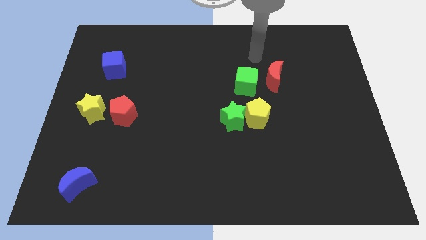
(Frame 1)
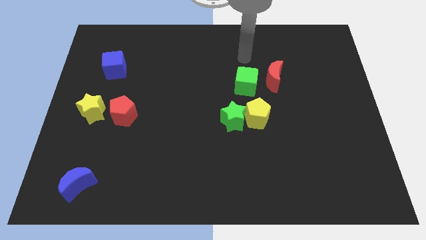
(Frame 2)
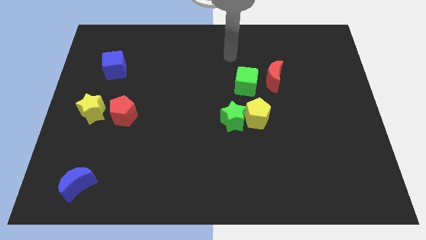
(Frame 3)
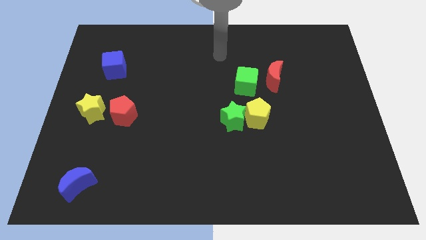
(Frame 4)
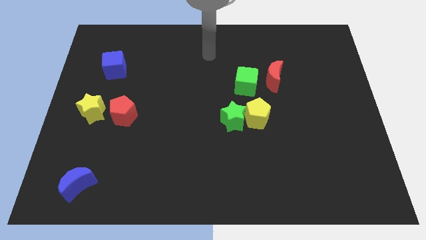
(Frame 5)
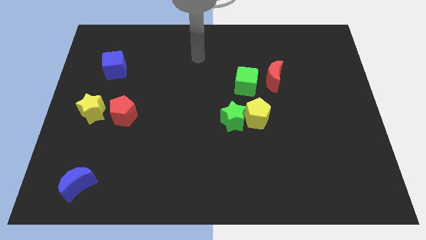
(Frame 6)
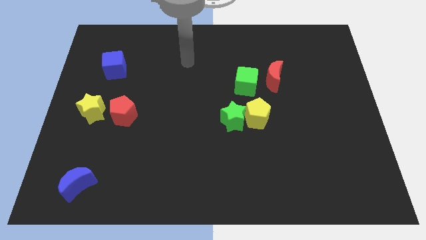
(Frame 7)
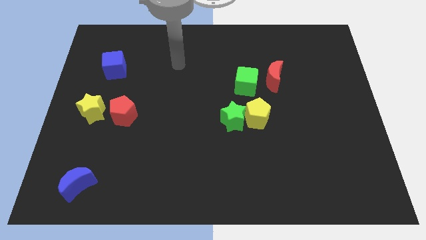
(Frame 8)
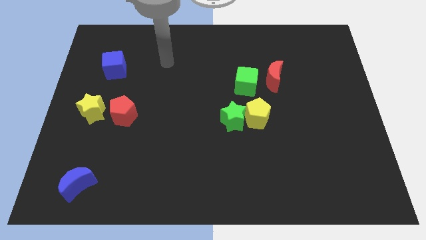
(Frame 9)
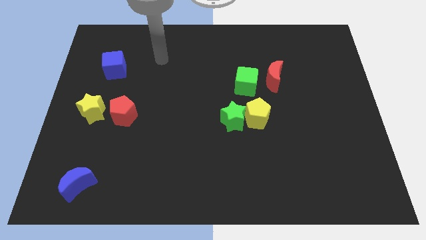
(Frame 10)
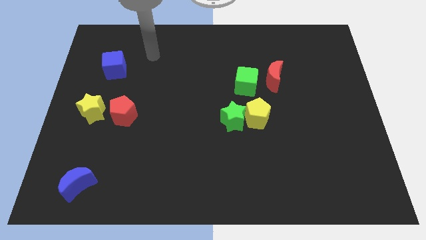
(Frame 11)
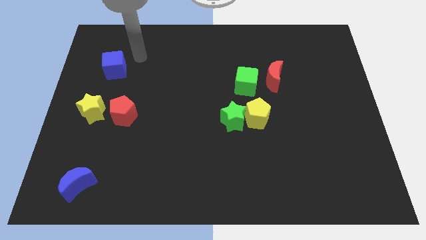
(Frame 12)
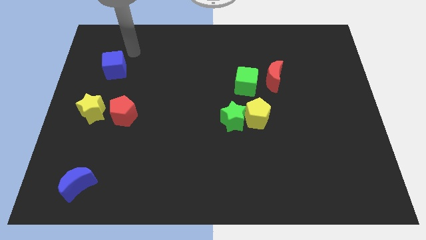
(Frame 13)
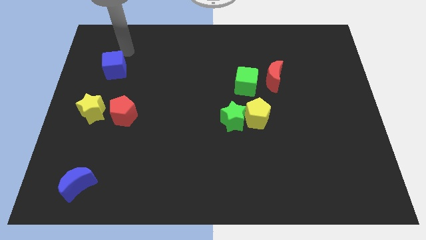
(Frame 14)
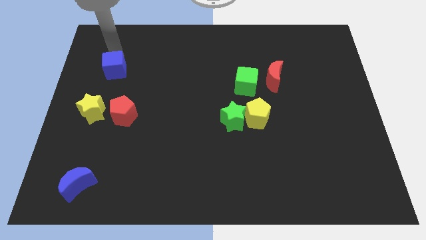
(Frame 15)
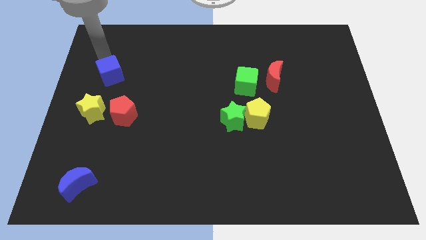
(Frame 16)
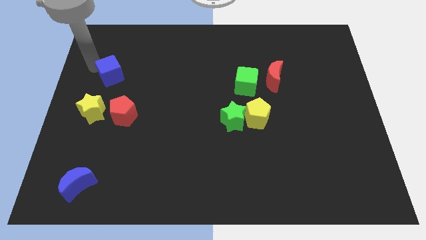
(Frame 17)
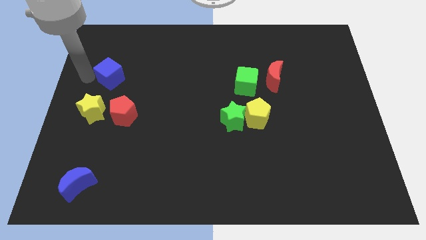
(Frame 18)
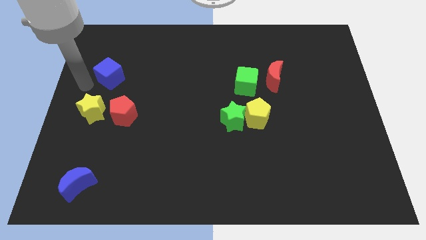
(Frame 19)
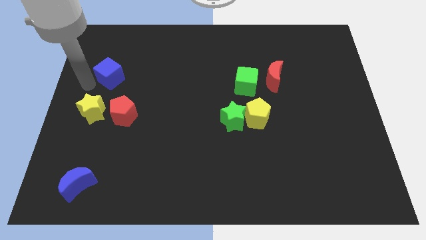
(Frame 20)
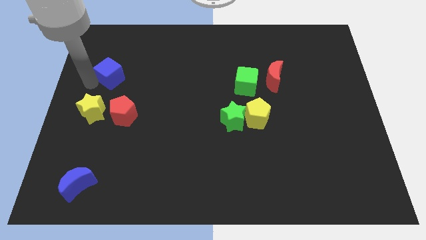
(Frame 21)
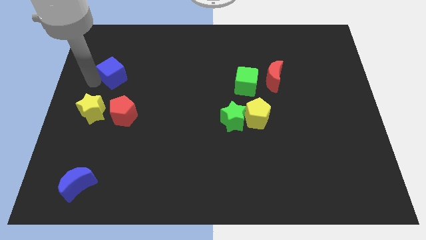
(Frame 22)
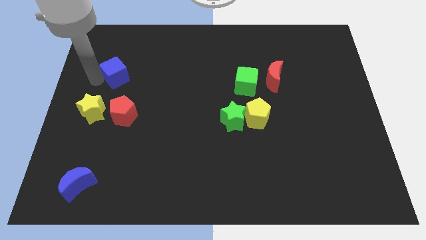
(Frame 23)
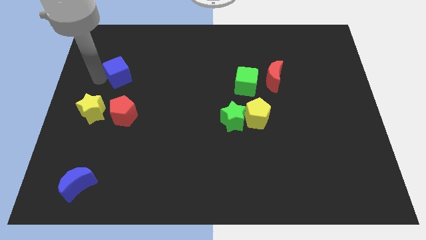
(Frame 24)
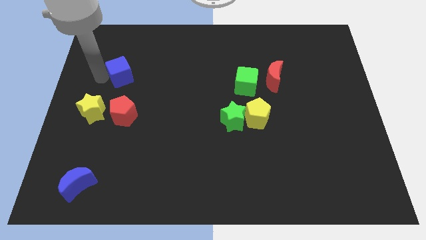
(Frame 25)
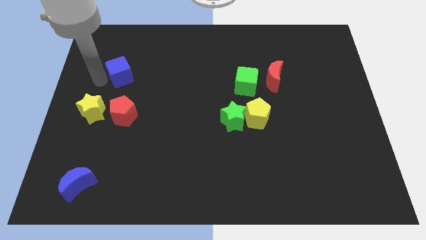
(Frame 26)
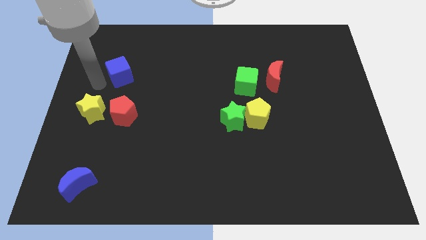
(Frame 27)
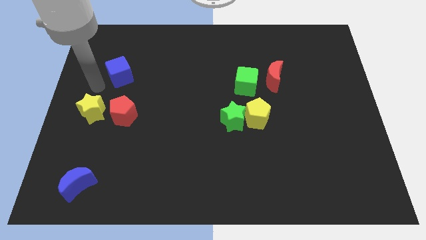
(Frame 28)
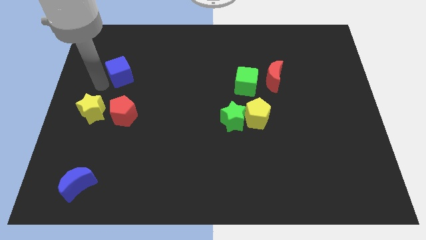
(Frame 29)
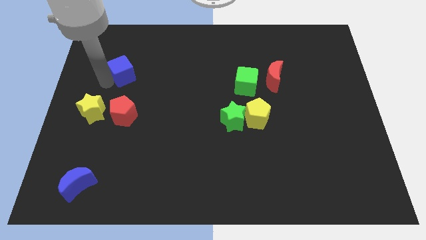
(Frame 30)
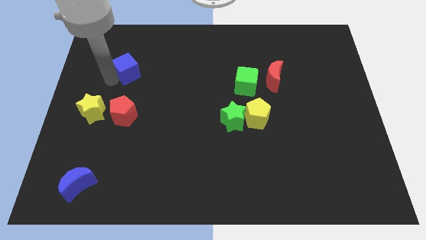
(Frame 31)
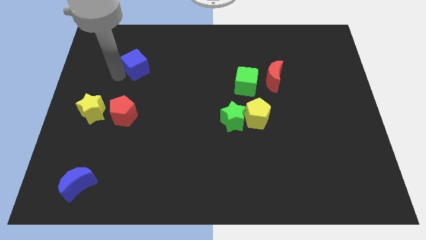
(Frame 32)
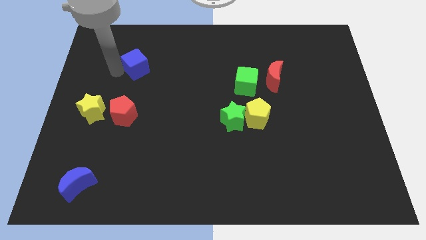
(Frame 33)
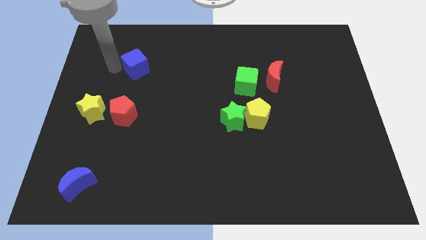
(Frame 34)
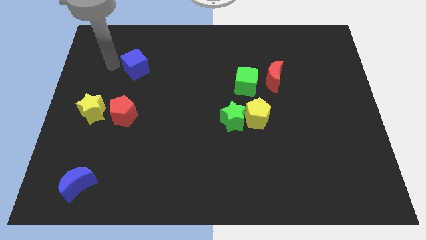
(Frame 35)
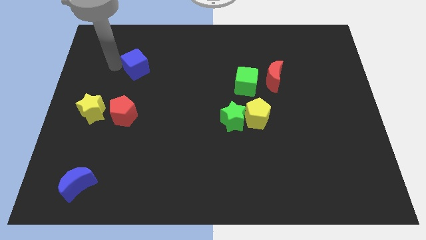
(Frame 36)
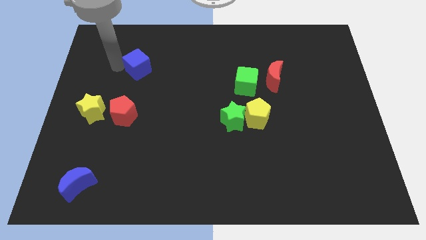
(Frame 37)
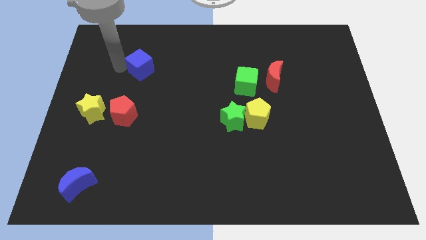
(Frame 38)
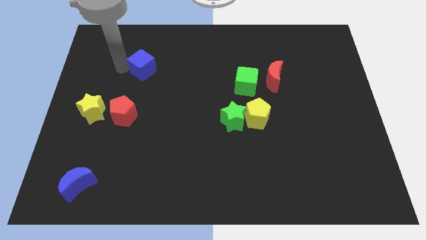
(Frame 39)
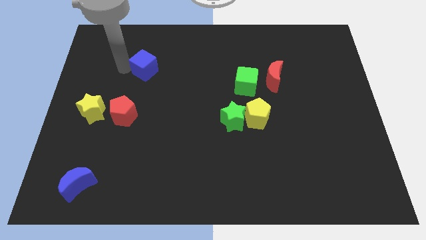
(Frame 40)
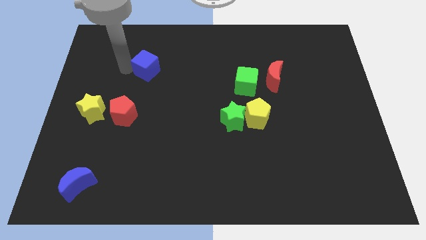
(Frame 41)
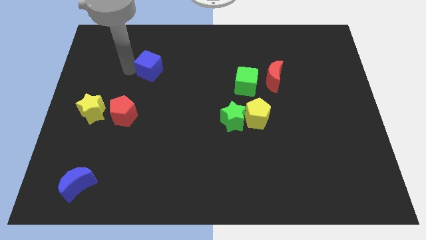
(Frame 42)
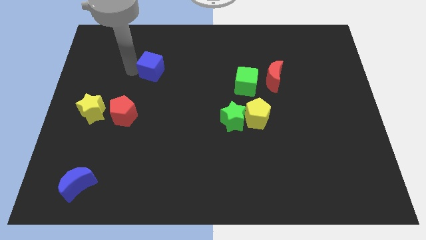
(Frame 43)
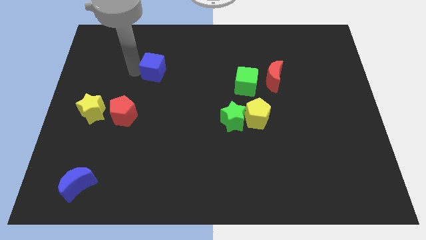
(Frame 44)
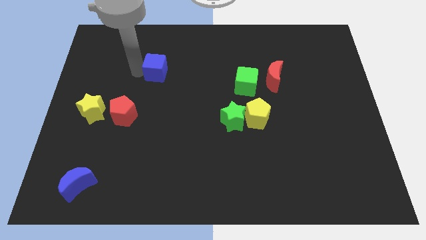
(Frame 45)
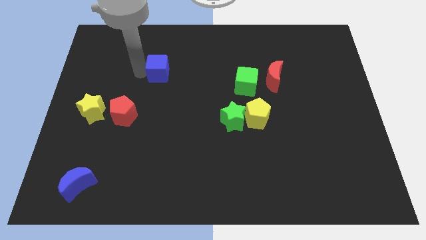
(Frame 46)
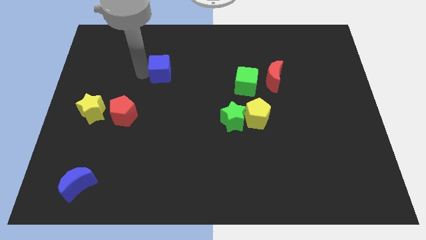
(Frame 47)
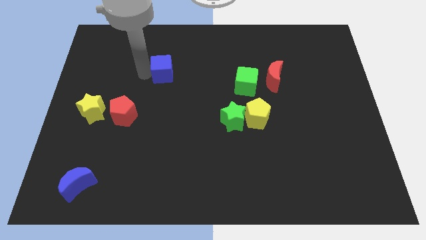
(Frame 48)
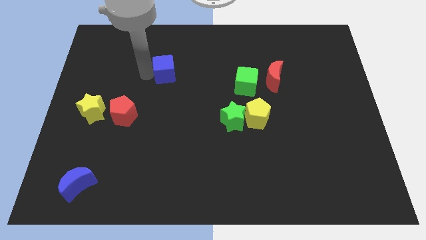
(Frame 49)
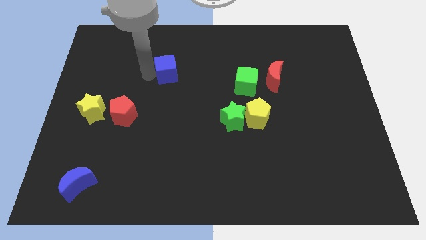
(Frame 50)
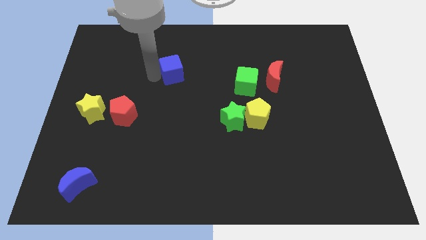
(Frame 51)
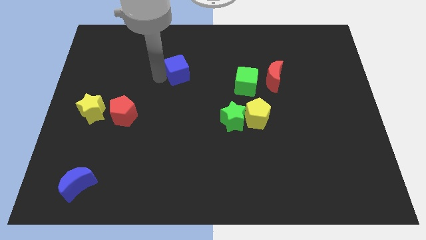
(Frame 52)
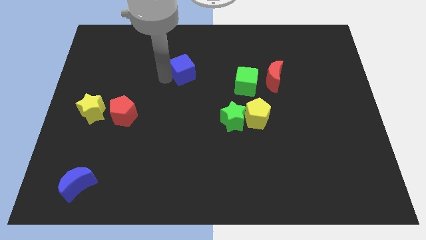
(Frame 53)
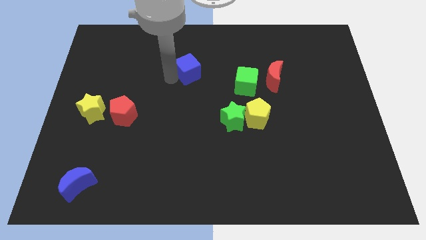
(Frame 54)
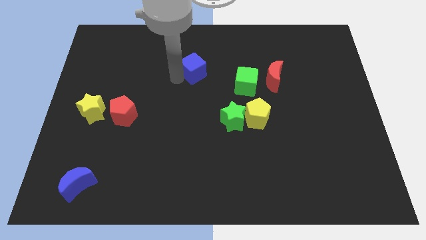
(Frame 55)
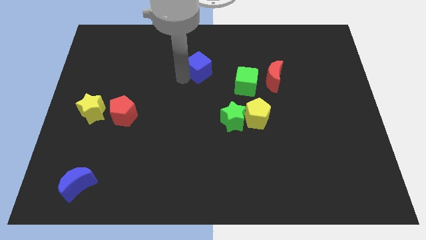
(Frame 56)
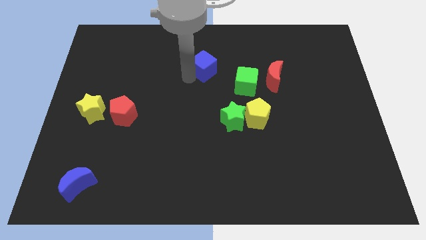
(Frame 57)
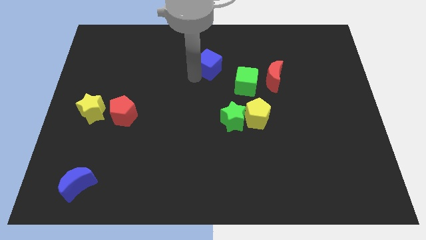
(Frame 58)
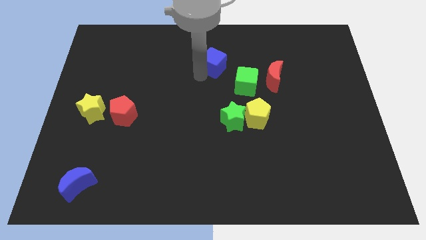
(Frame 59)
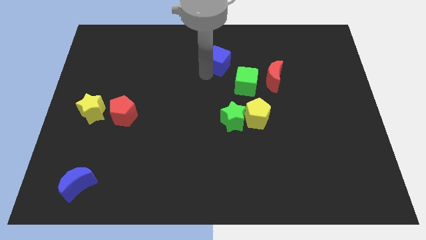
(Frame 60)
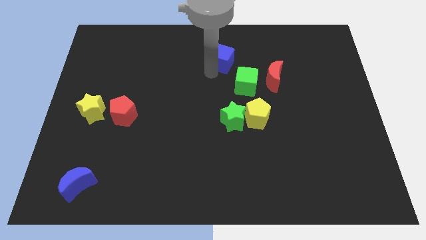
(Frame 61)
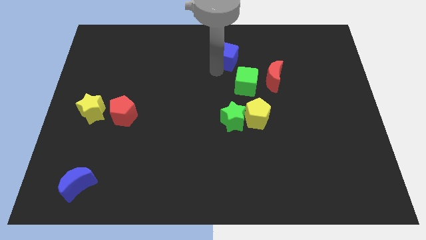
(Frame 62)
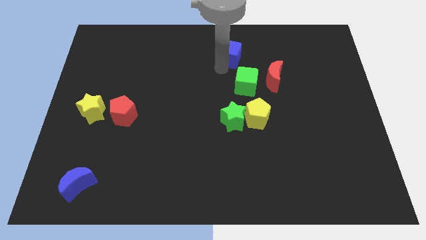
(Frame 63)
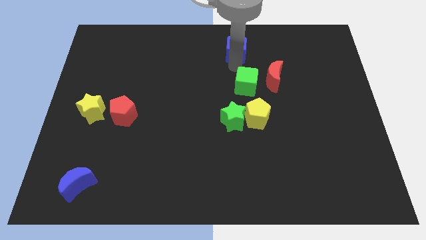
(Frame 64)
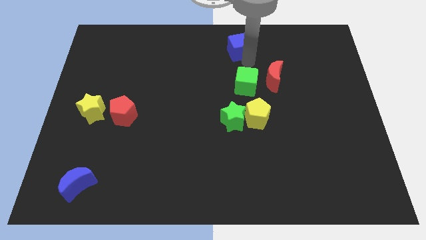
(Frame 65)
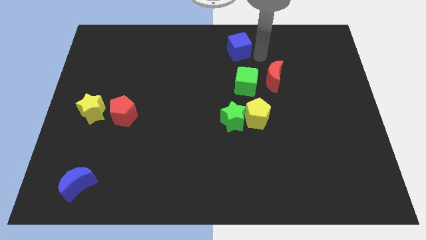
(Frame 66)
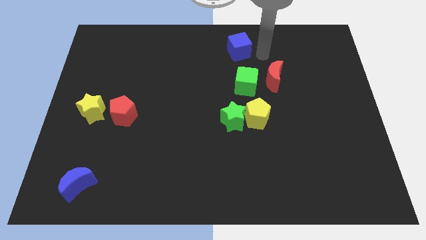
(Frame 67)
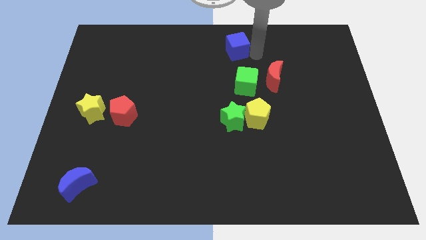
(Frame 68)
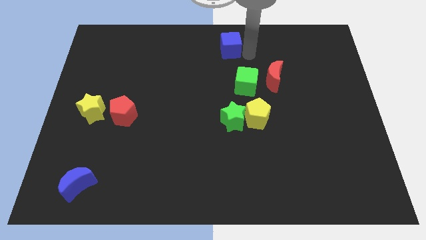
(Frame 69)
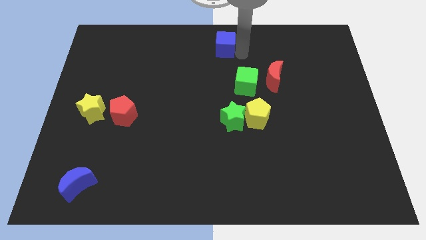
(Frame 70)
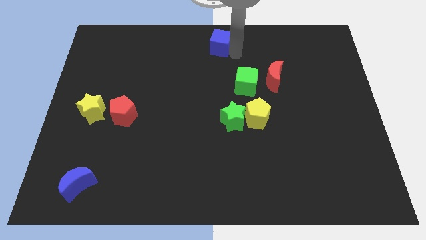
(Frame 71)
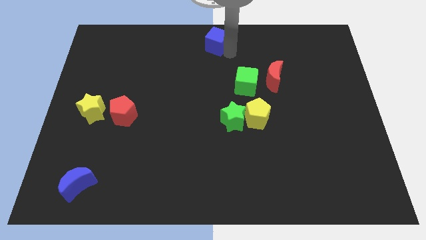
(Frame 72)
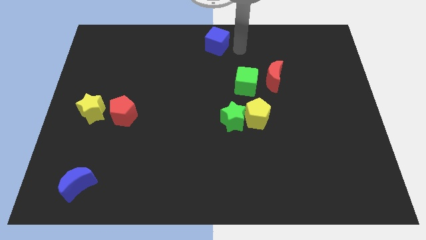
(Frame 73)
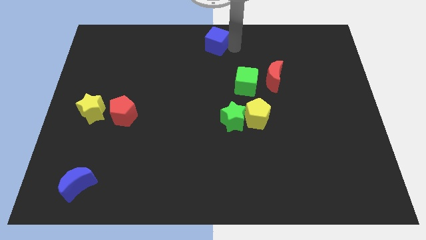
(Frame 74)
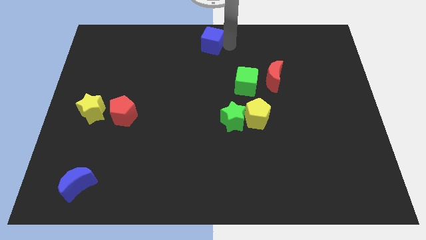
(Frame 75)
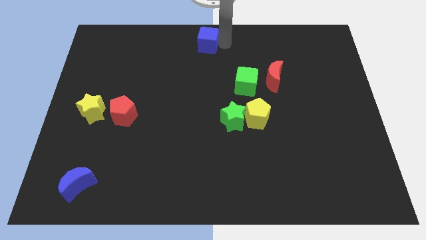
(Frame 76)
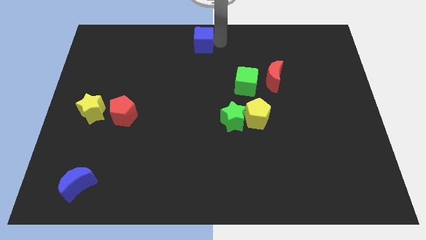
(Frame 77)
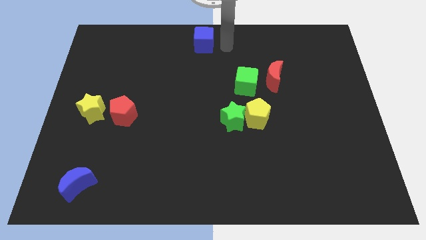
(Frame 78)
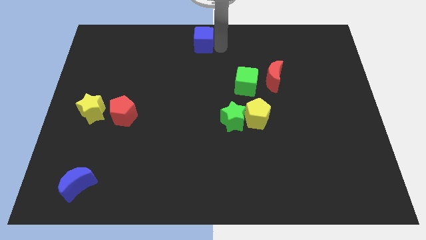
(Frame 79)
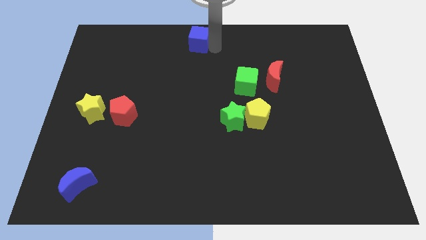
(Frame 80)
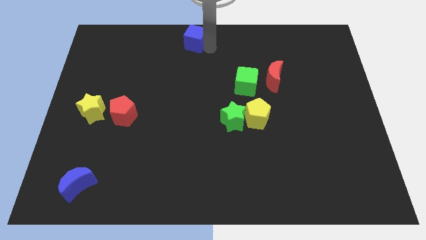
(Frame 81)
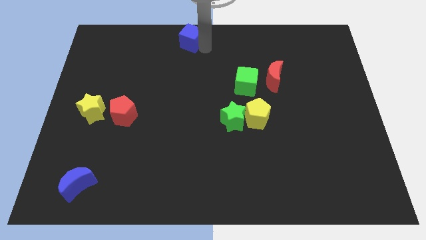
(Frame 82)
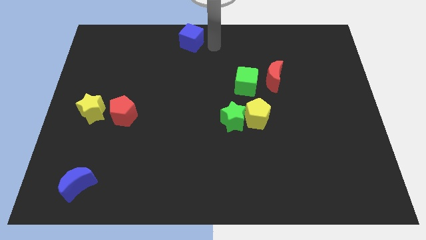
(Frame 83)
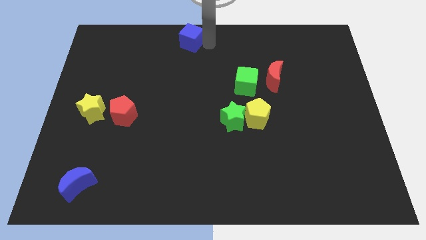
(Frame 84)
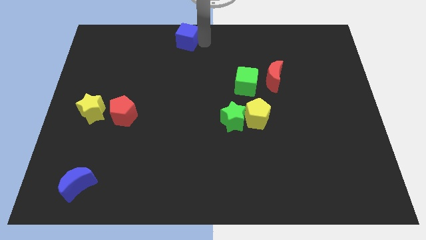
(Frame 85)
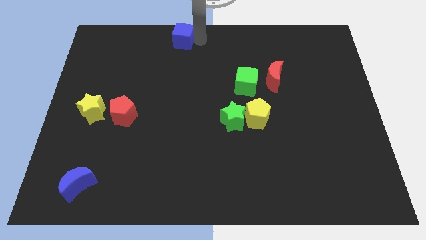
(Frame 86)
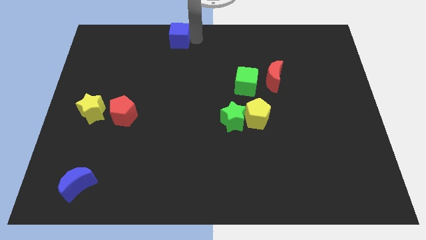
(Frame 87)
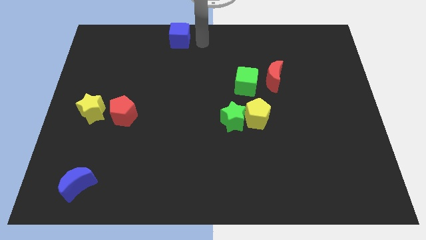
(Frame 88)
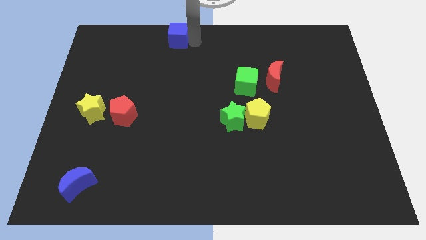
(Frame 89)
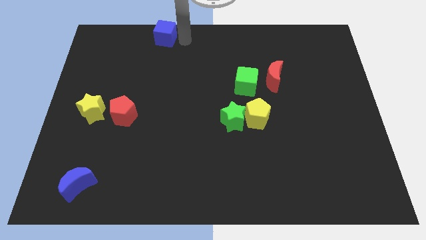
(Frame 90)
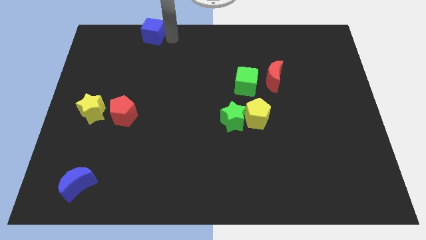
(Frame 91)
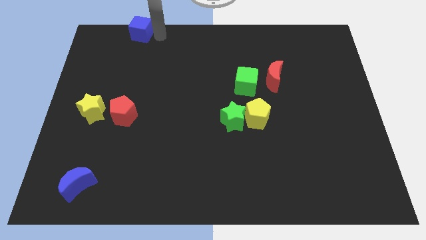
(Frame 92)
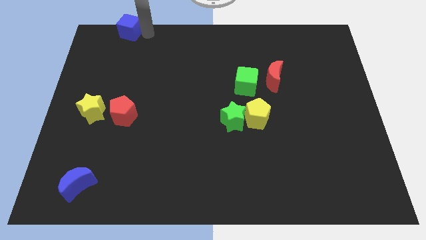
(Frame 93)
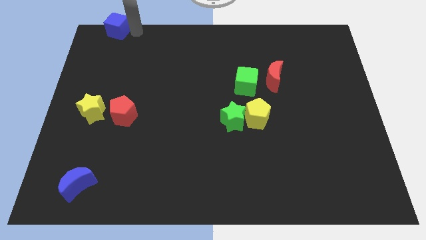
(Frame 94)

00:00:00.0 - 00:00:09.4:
push the blue cube to the top left corner
